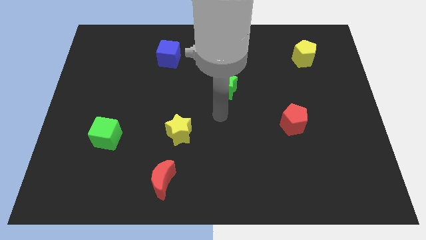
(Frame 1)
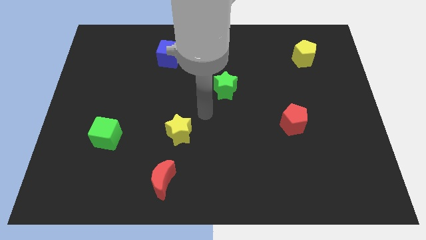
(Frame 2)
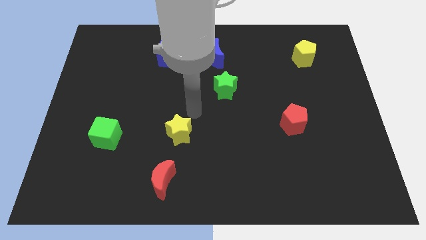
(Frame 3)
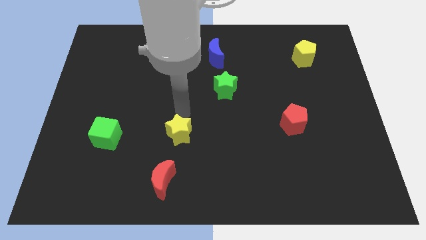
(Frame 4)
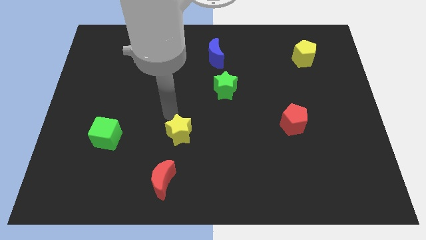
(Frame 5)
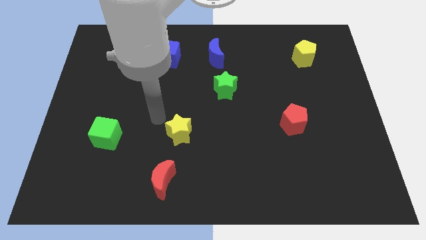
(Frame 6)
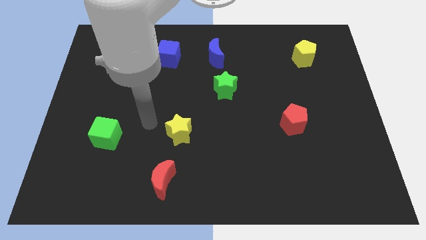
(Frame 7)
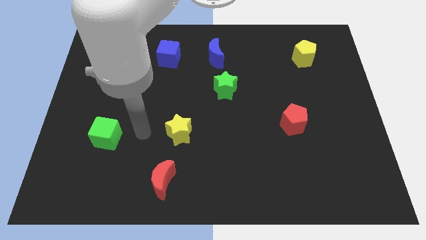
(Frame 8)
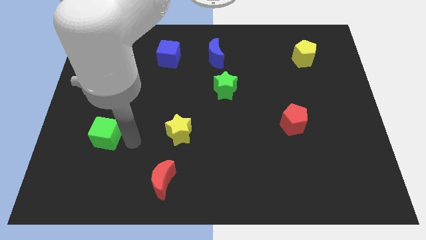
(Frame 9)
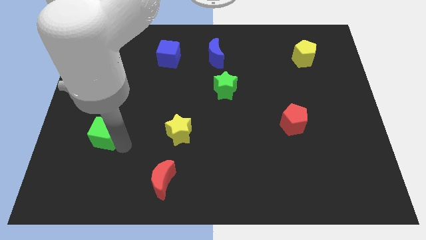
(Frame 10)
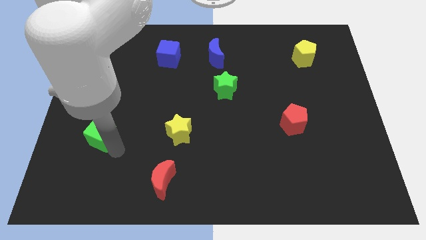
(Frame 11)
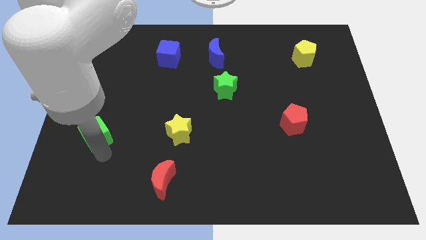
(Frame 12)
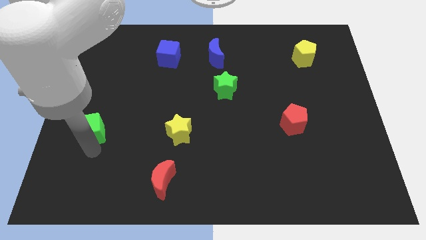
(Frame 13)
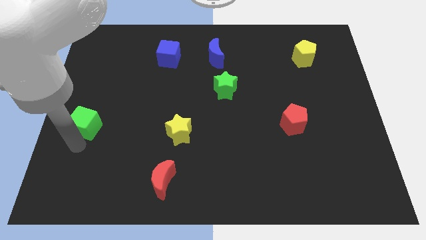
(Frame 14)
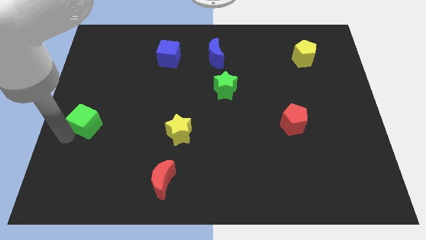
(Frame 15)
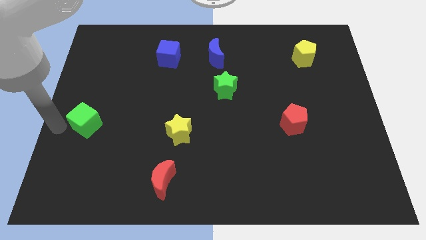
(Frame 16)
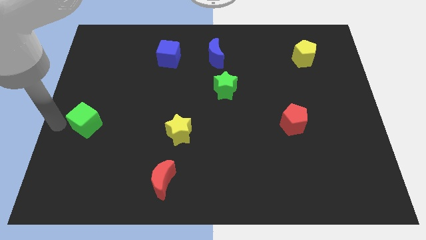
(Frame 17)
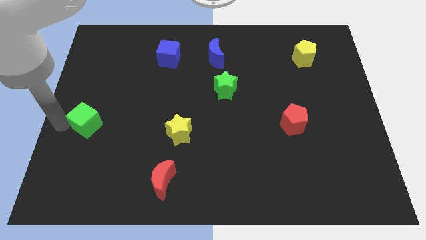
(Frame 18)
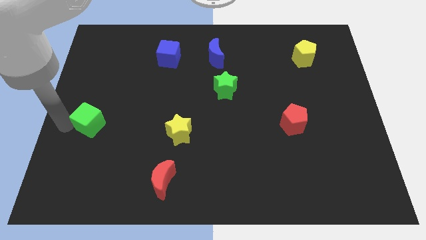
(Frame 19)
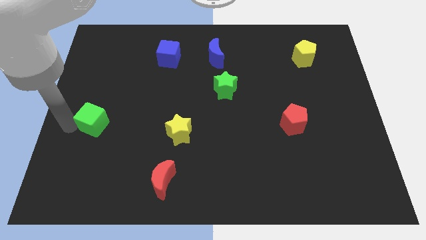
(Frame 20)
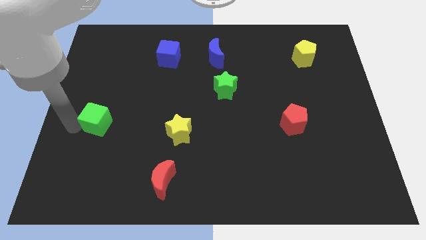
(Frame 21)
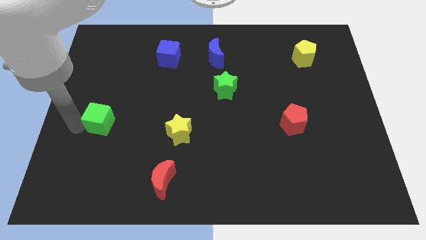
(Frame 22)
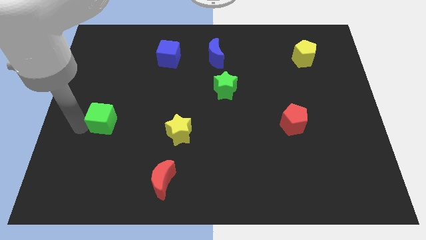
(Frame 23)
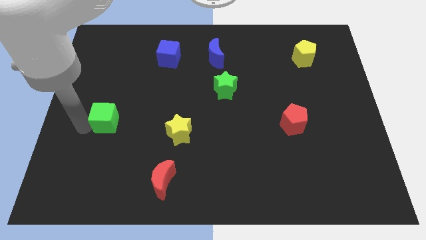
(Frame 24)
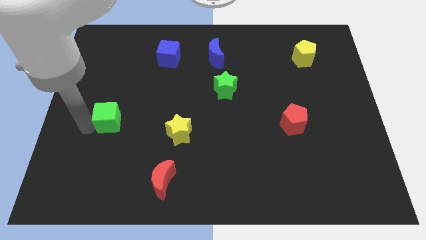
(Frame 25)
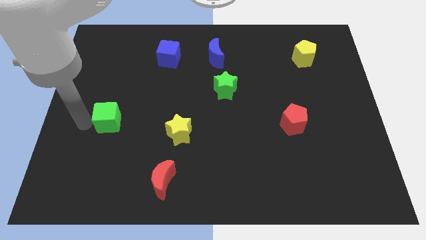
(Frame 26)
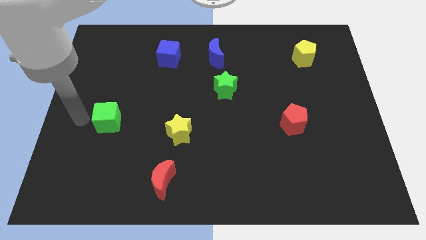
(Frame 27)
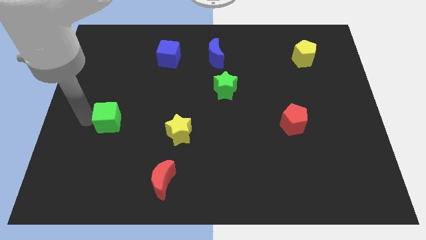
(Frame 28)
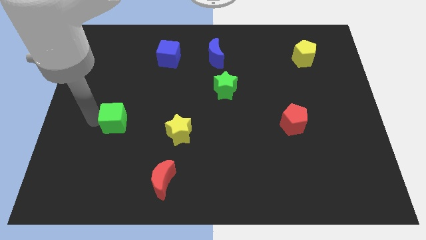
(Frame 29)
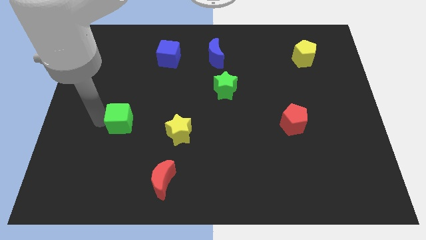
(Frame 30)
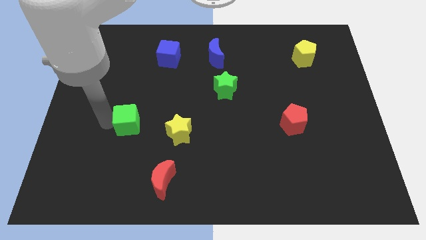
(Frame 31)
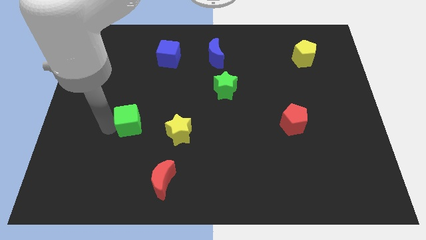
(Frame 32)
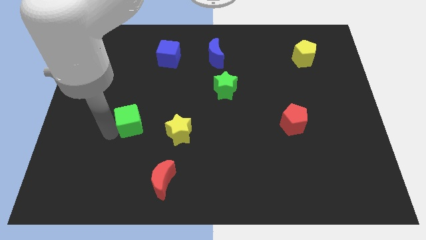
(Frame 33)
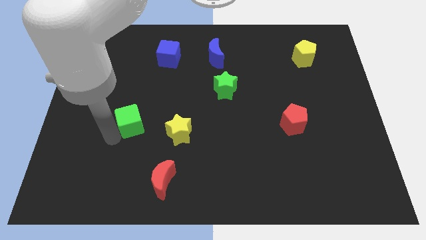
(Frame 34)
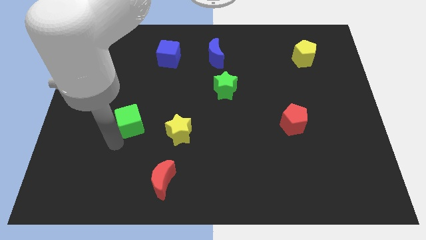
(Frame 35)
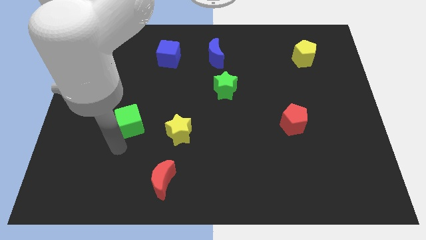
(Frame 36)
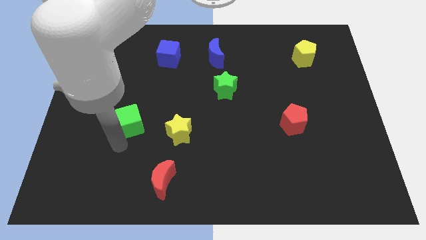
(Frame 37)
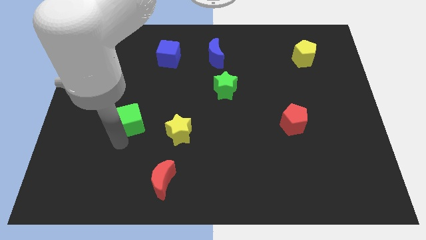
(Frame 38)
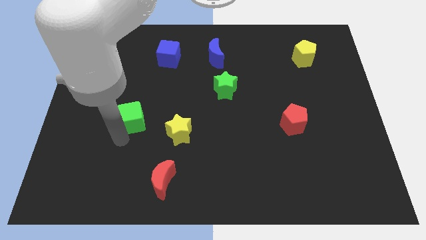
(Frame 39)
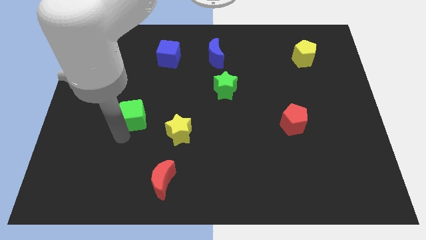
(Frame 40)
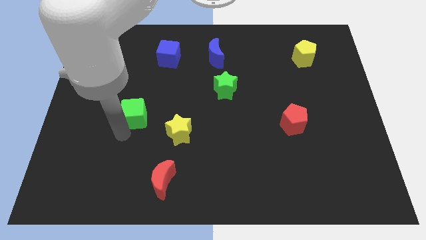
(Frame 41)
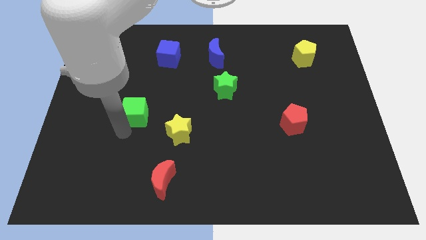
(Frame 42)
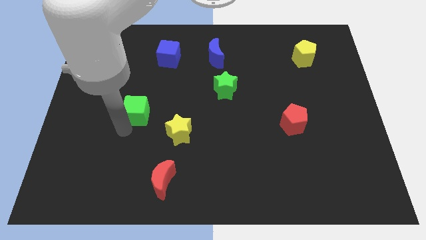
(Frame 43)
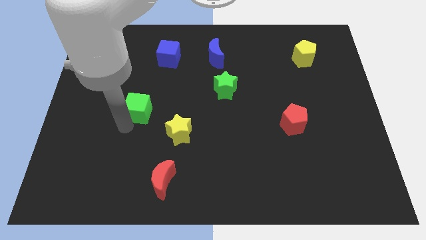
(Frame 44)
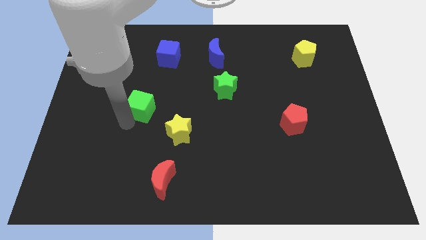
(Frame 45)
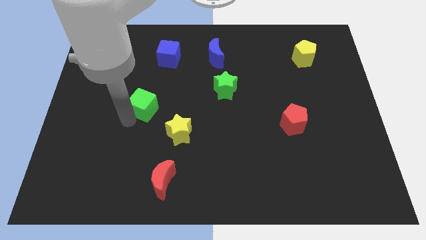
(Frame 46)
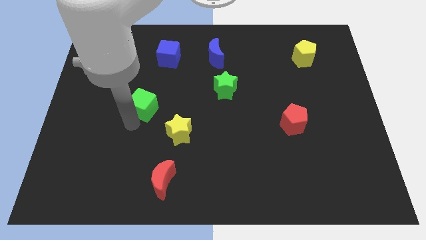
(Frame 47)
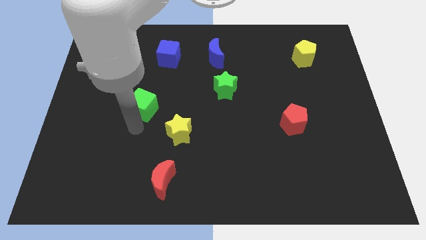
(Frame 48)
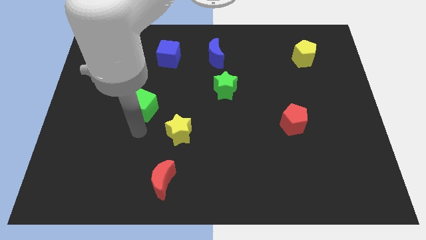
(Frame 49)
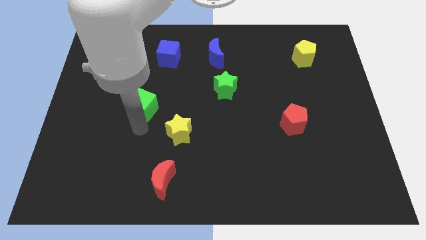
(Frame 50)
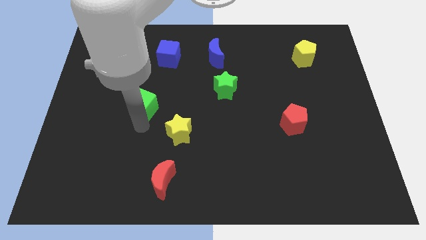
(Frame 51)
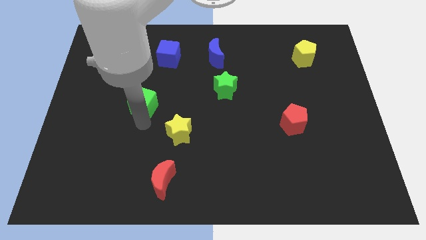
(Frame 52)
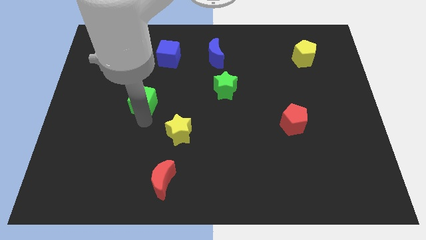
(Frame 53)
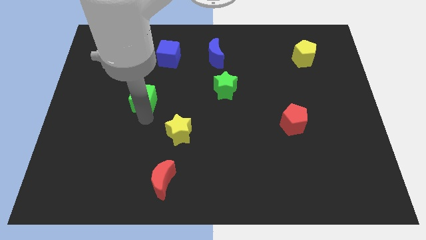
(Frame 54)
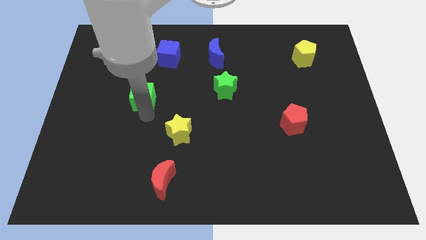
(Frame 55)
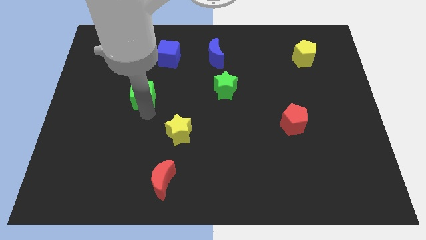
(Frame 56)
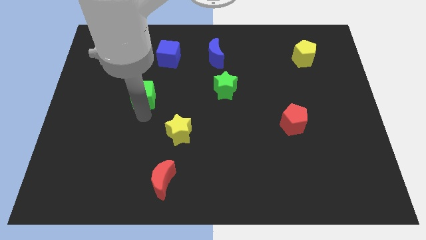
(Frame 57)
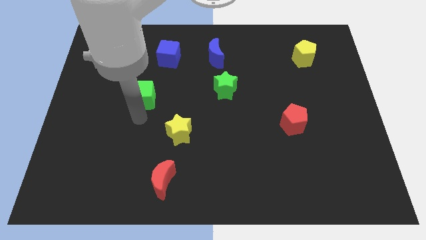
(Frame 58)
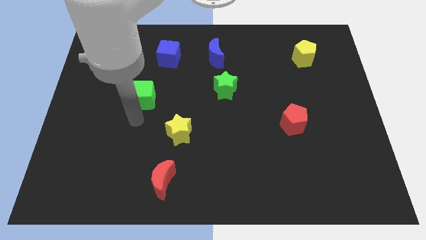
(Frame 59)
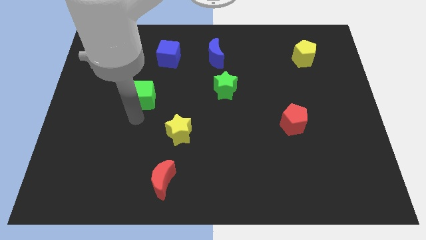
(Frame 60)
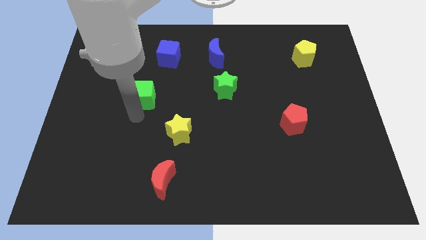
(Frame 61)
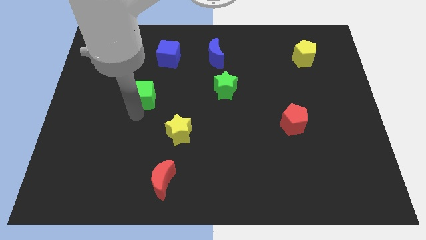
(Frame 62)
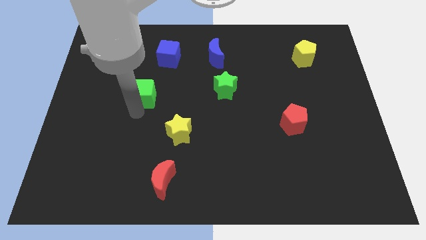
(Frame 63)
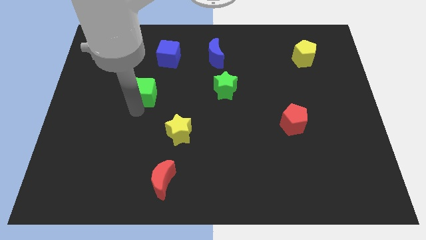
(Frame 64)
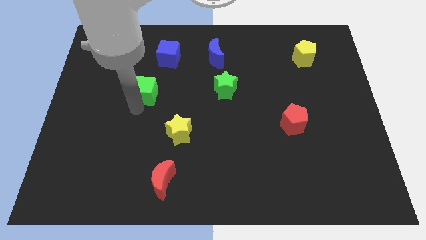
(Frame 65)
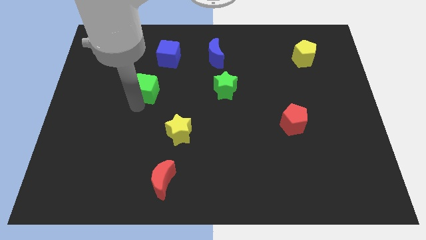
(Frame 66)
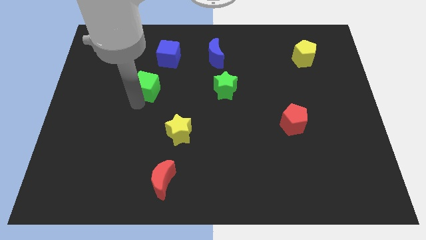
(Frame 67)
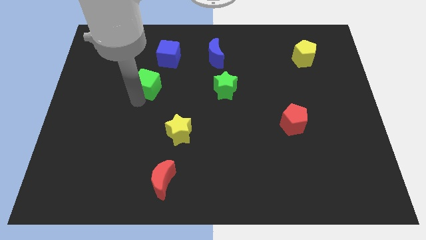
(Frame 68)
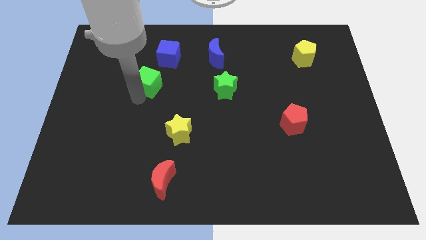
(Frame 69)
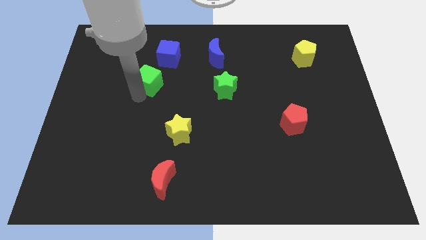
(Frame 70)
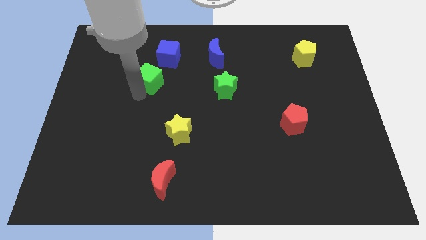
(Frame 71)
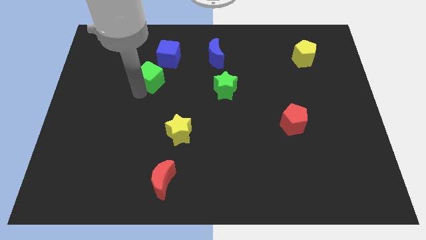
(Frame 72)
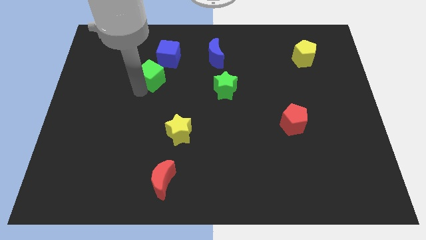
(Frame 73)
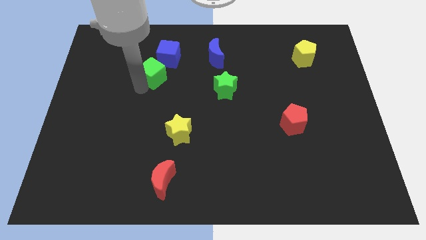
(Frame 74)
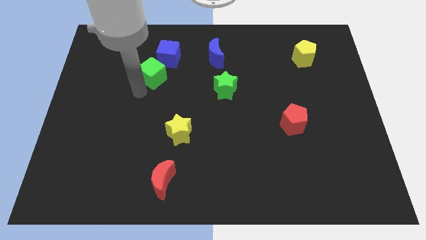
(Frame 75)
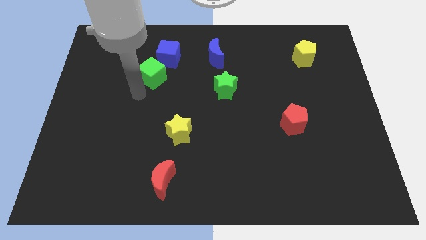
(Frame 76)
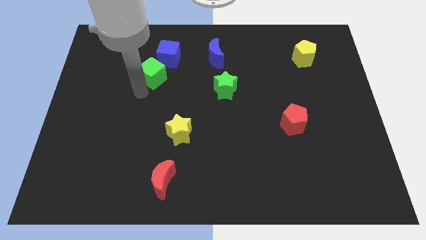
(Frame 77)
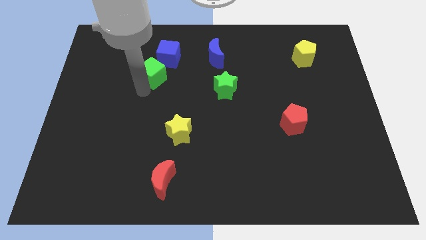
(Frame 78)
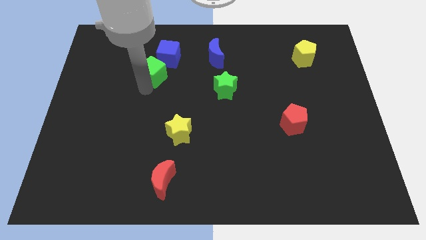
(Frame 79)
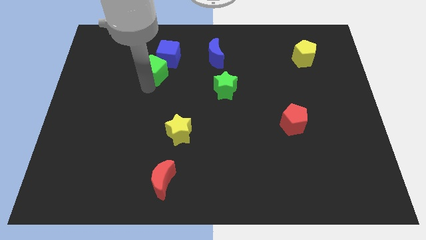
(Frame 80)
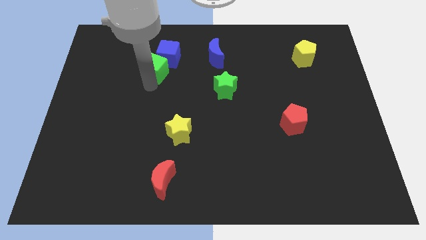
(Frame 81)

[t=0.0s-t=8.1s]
put the green cube towards the blue cube
